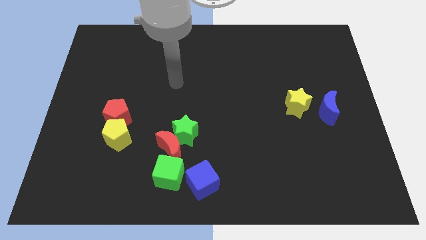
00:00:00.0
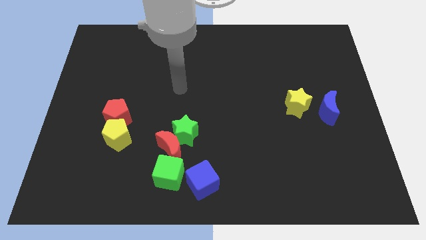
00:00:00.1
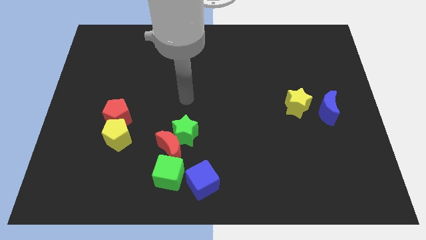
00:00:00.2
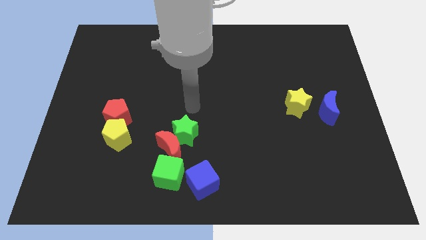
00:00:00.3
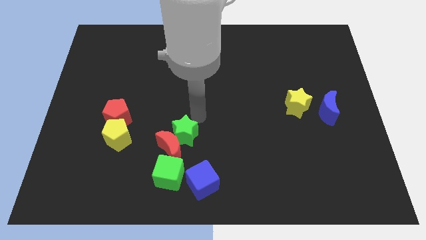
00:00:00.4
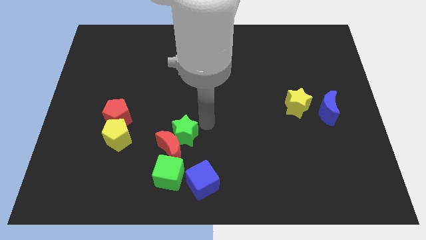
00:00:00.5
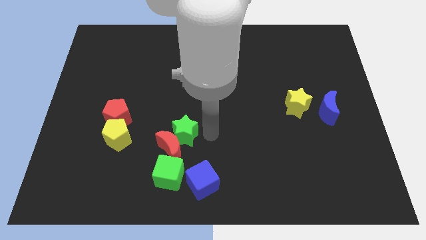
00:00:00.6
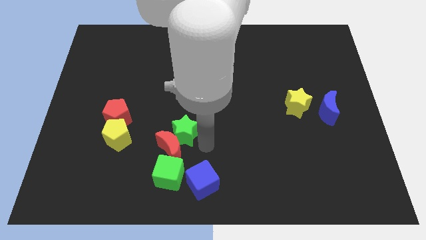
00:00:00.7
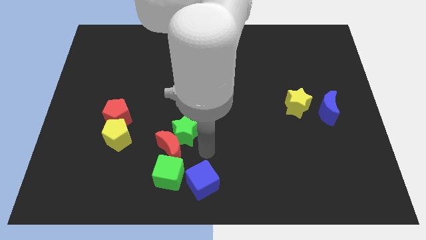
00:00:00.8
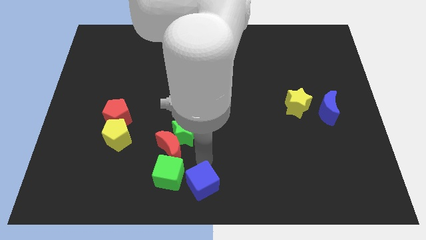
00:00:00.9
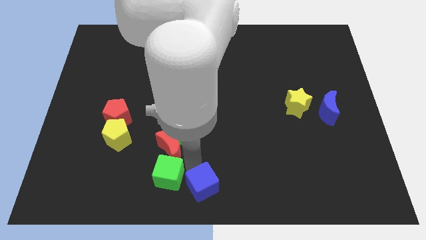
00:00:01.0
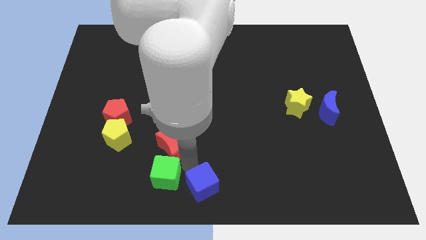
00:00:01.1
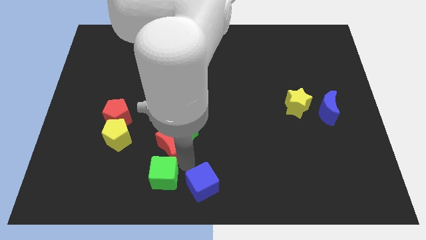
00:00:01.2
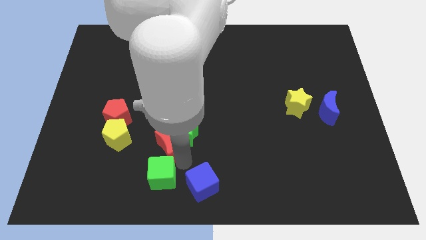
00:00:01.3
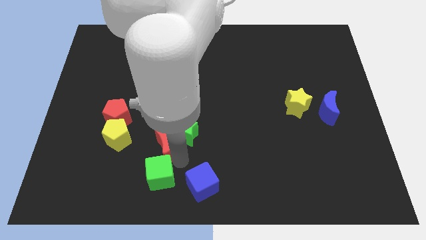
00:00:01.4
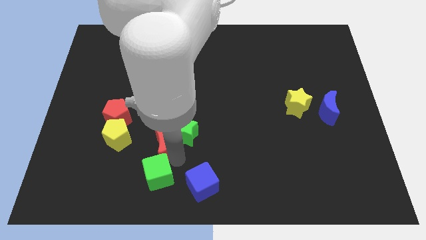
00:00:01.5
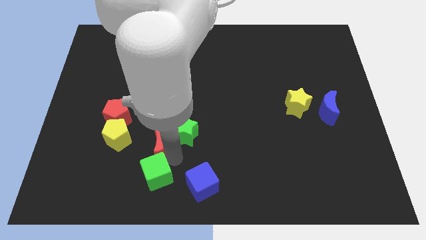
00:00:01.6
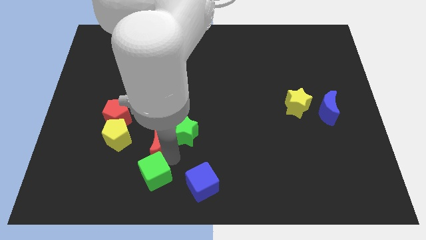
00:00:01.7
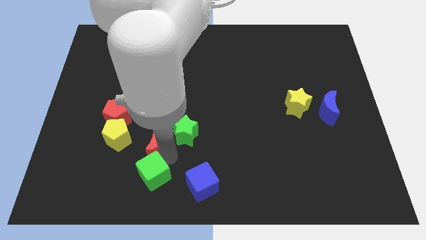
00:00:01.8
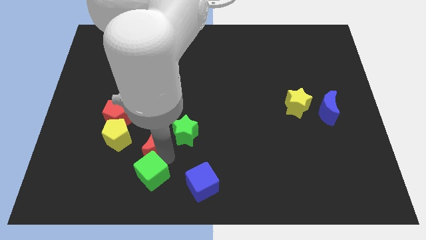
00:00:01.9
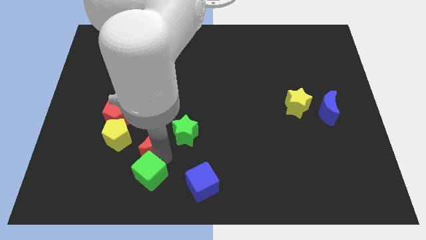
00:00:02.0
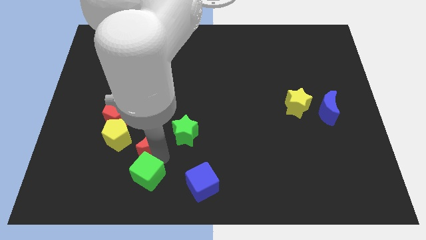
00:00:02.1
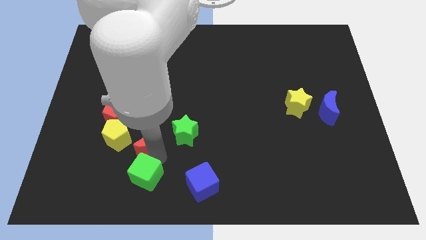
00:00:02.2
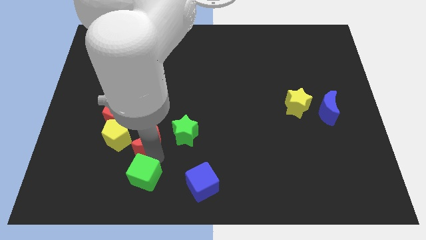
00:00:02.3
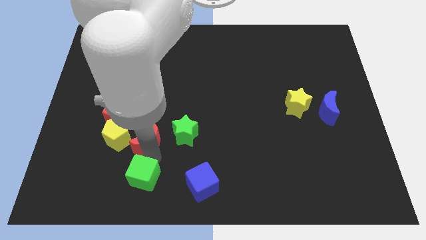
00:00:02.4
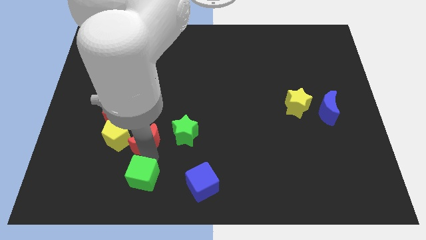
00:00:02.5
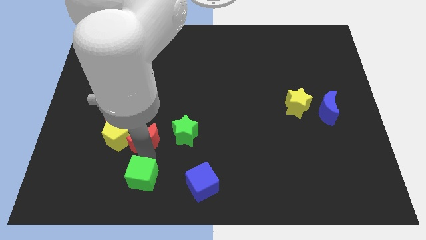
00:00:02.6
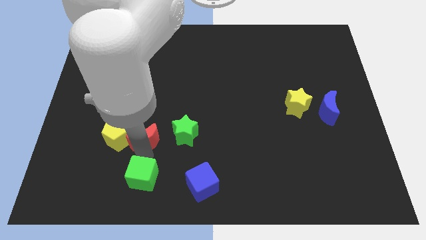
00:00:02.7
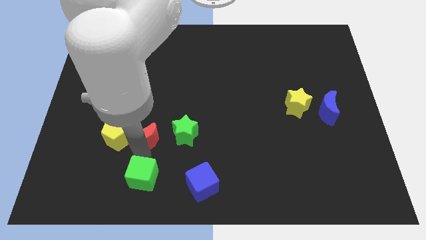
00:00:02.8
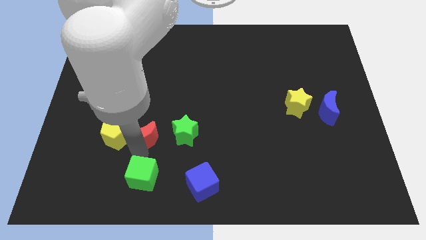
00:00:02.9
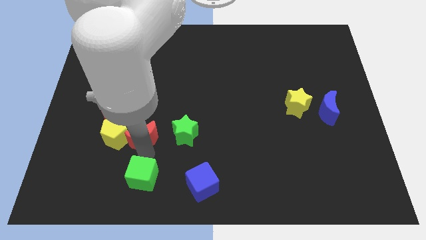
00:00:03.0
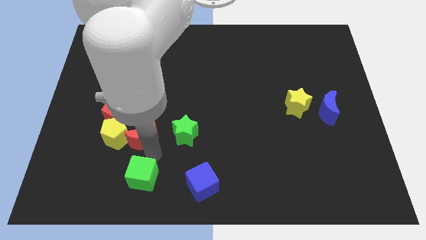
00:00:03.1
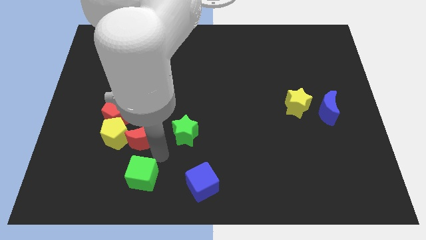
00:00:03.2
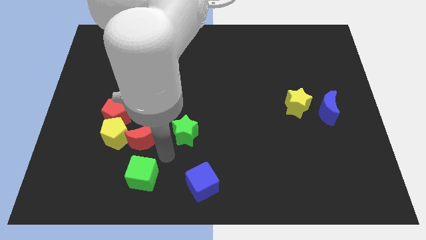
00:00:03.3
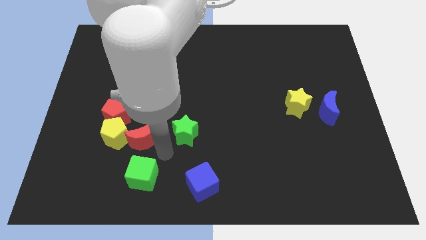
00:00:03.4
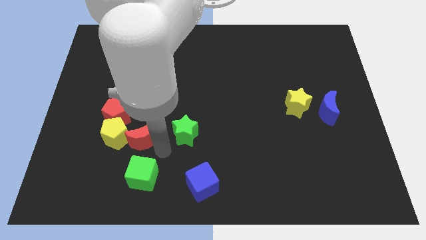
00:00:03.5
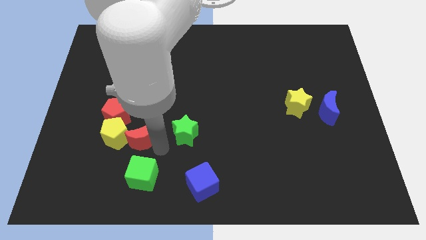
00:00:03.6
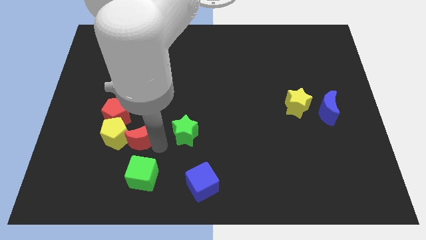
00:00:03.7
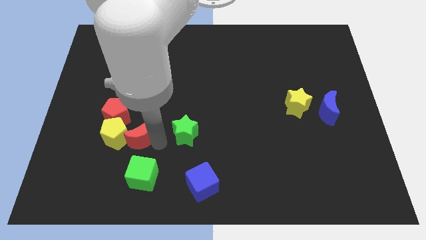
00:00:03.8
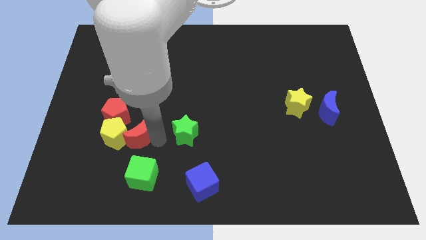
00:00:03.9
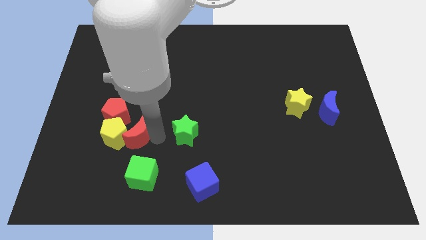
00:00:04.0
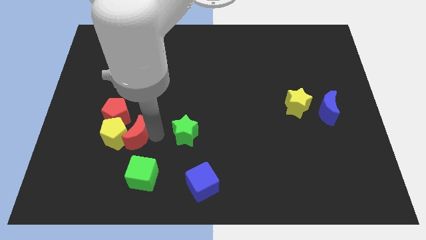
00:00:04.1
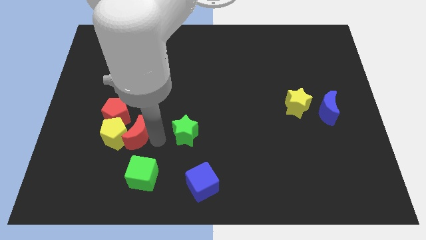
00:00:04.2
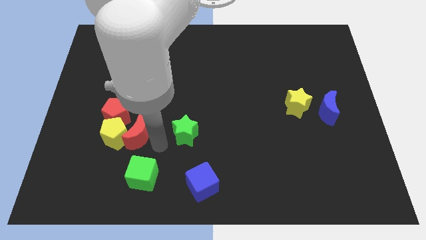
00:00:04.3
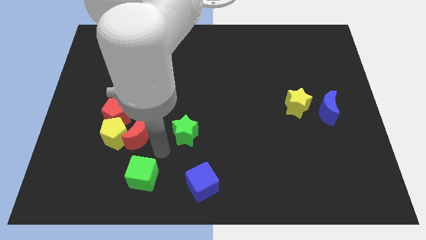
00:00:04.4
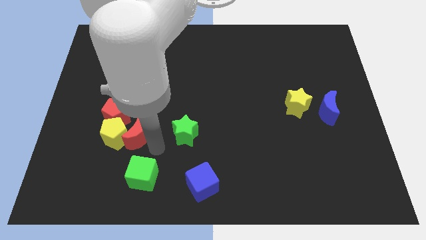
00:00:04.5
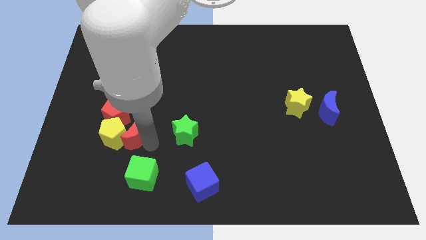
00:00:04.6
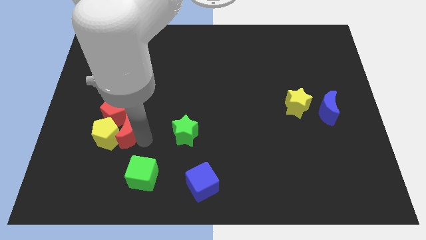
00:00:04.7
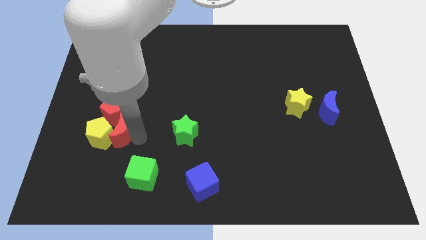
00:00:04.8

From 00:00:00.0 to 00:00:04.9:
move the red moon away from the green star and green cube

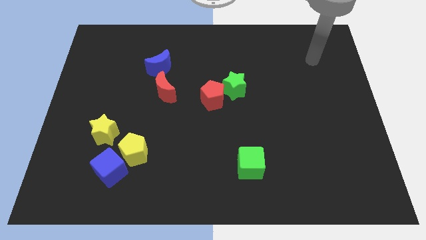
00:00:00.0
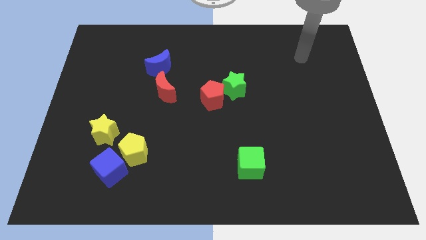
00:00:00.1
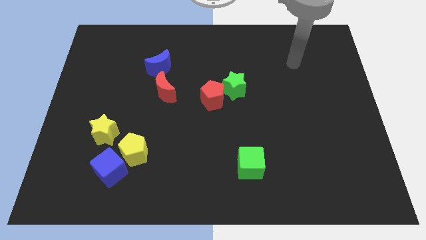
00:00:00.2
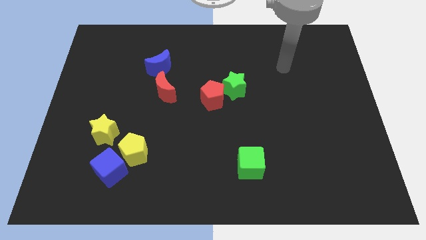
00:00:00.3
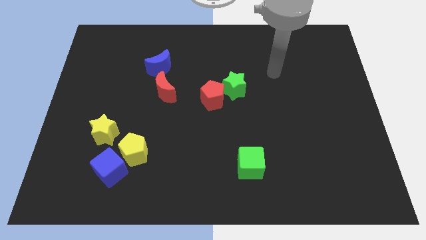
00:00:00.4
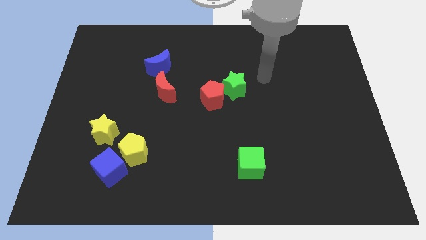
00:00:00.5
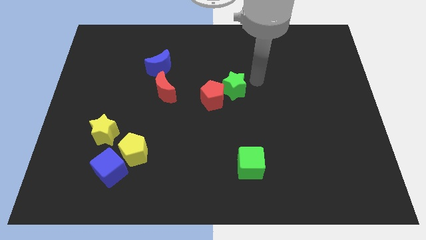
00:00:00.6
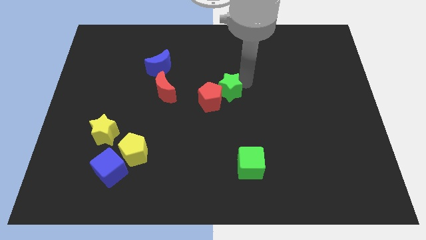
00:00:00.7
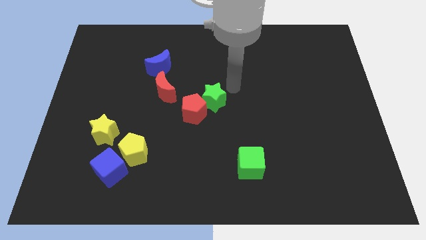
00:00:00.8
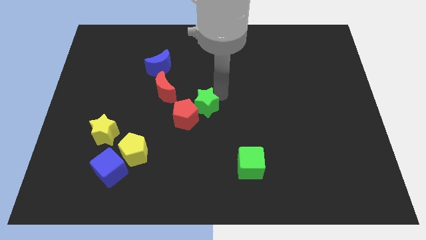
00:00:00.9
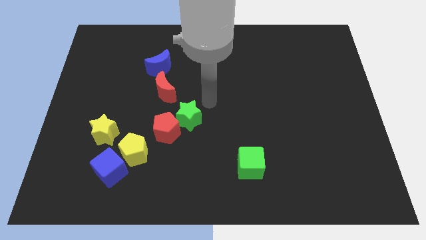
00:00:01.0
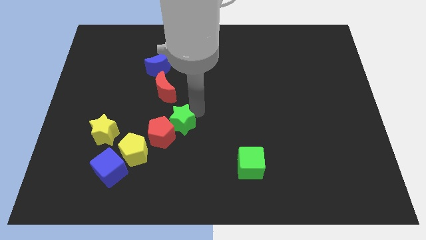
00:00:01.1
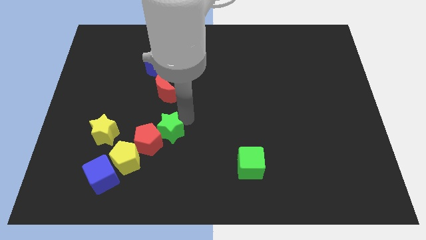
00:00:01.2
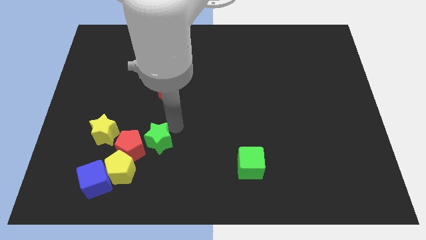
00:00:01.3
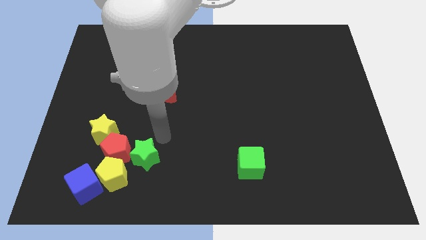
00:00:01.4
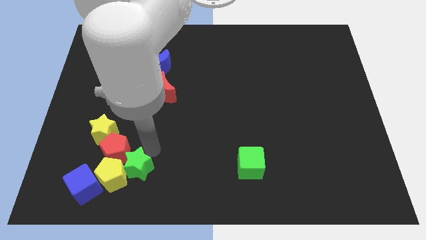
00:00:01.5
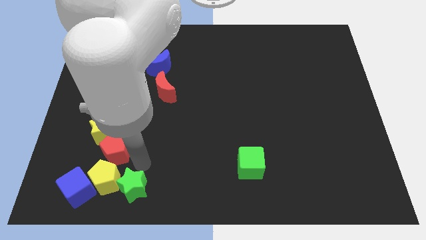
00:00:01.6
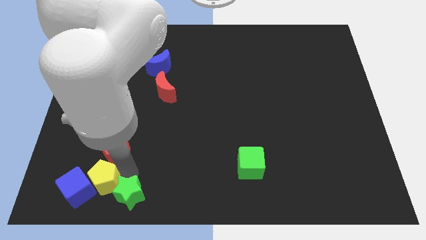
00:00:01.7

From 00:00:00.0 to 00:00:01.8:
separate the red pentagon from the green star

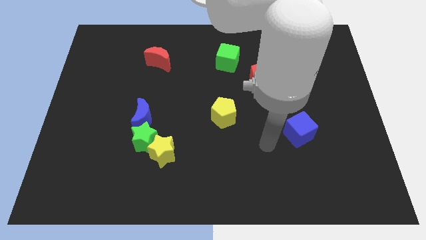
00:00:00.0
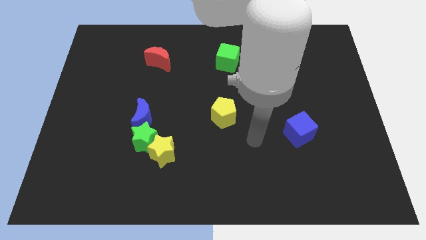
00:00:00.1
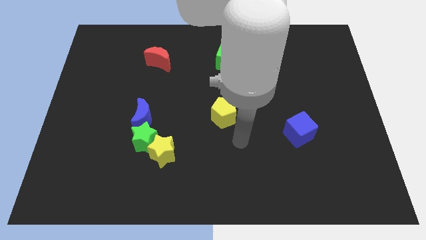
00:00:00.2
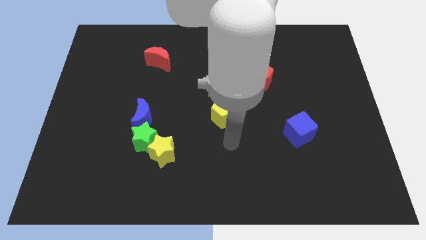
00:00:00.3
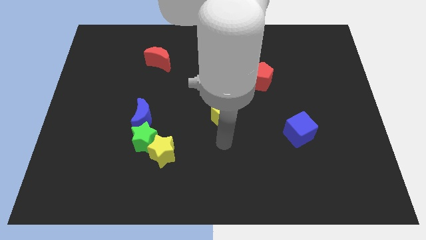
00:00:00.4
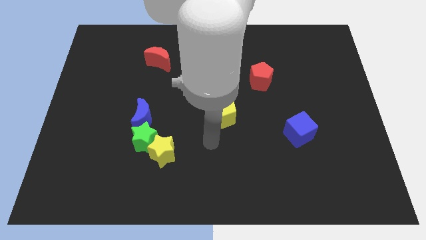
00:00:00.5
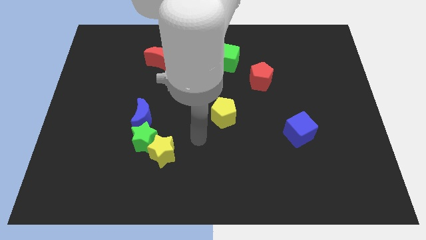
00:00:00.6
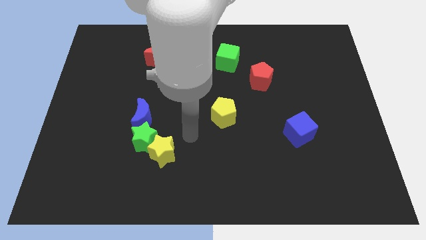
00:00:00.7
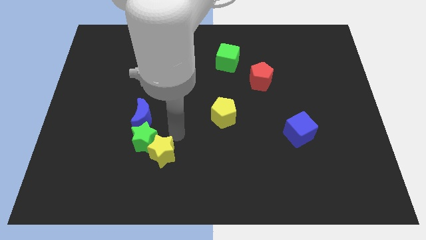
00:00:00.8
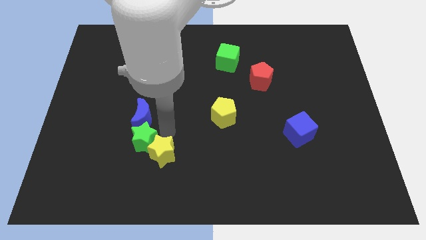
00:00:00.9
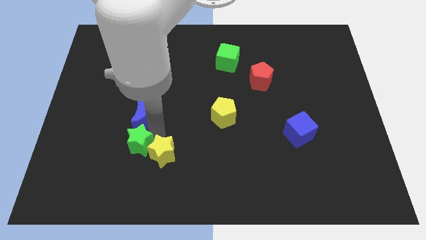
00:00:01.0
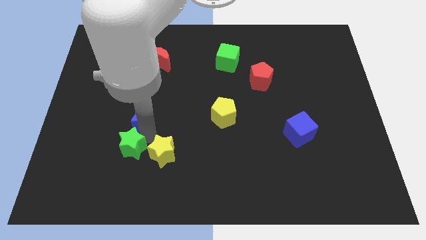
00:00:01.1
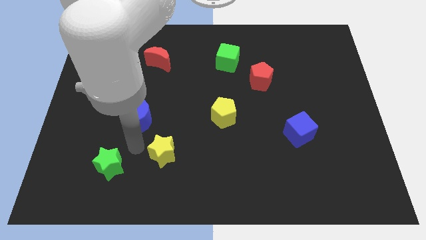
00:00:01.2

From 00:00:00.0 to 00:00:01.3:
separate the yellow star from the green star

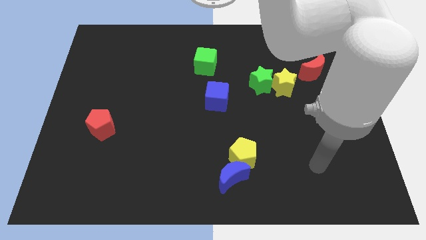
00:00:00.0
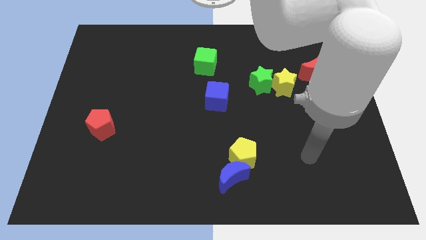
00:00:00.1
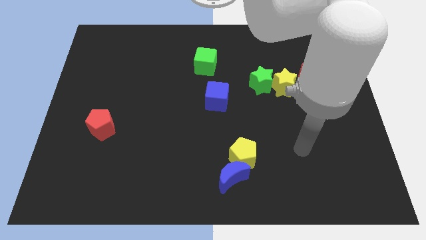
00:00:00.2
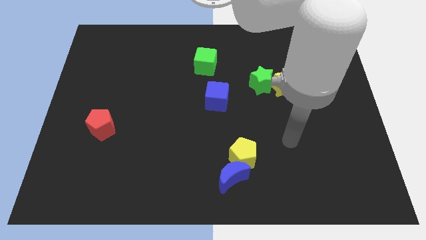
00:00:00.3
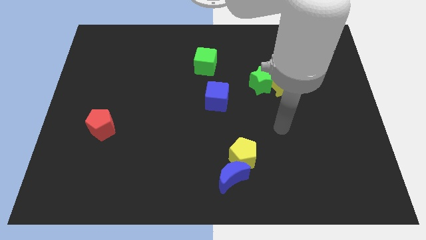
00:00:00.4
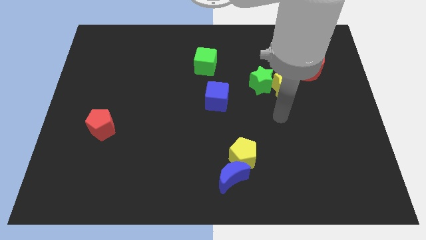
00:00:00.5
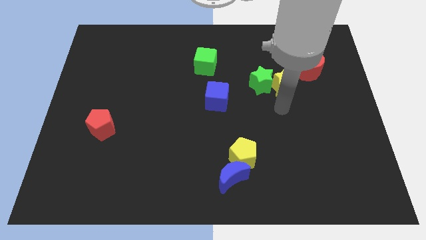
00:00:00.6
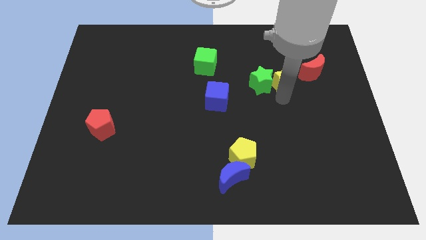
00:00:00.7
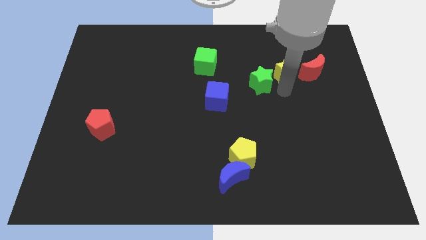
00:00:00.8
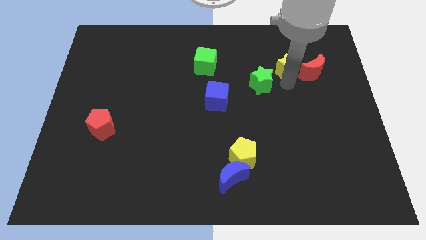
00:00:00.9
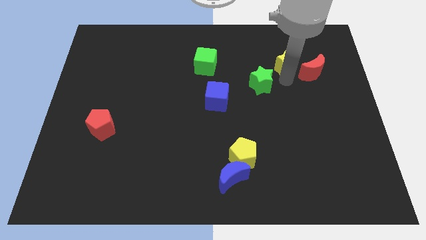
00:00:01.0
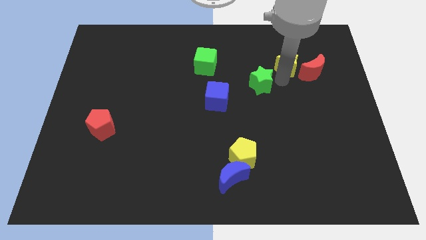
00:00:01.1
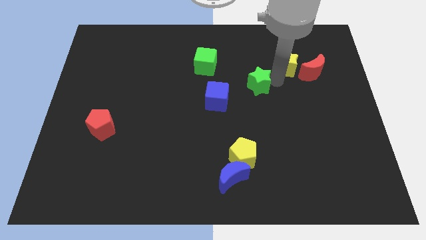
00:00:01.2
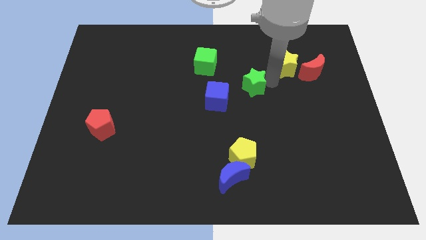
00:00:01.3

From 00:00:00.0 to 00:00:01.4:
separate the green star from the yellow star
